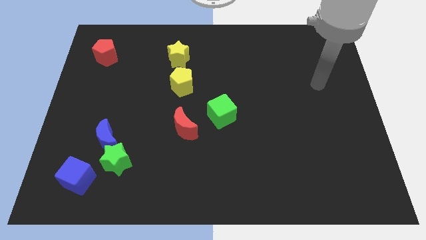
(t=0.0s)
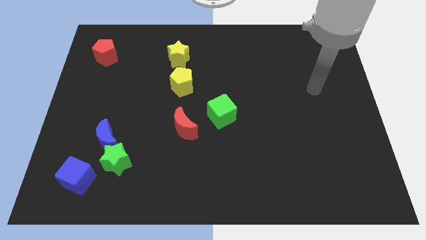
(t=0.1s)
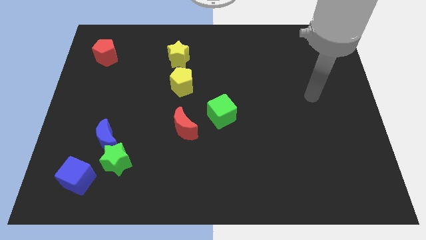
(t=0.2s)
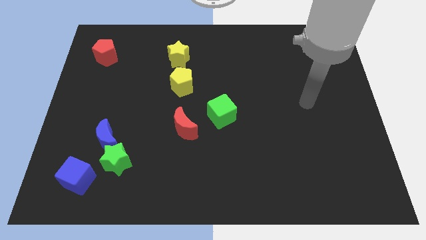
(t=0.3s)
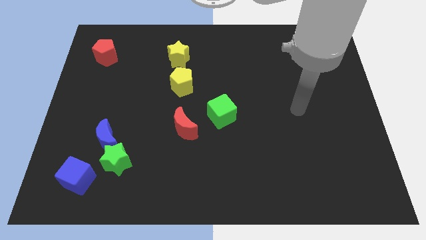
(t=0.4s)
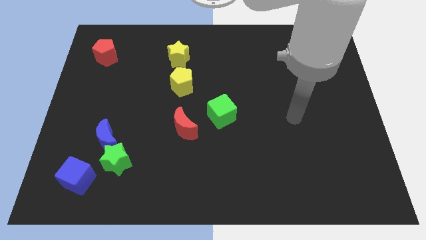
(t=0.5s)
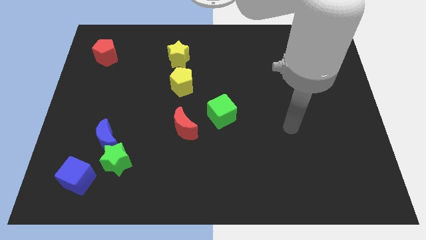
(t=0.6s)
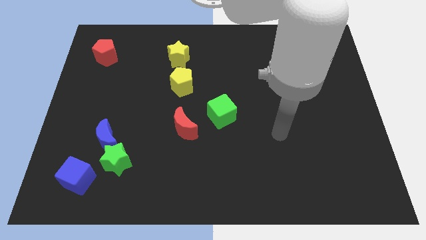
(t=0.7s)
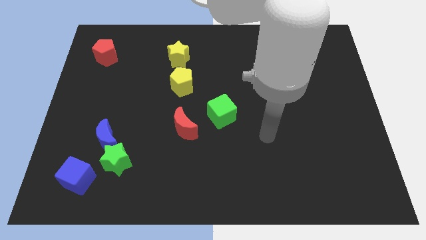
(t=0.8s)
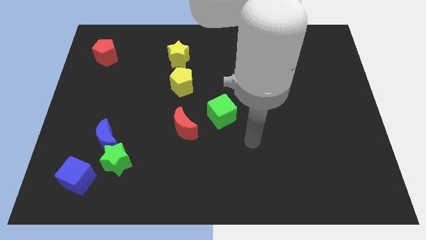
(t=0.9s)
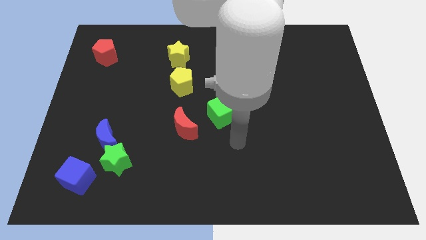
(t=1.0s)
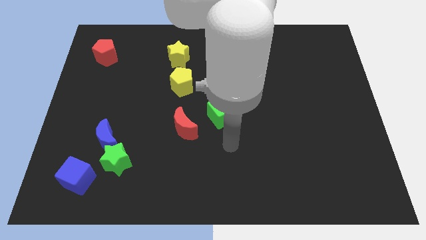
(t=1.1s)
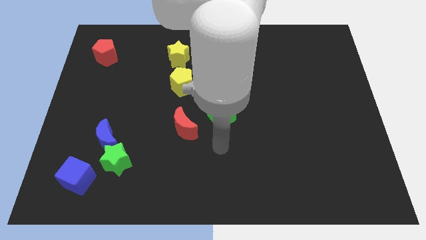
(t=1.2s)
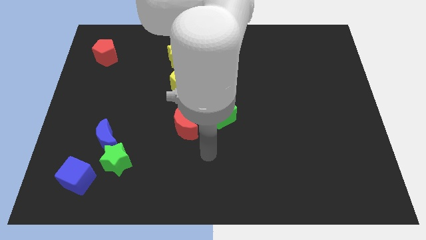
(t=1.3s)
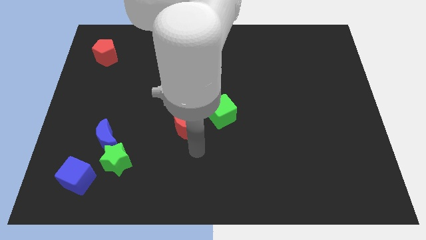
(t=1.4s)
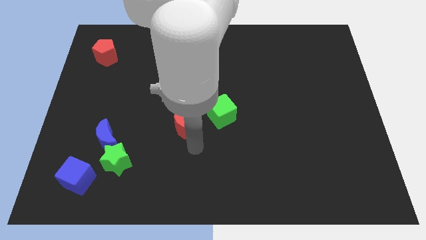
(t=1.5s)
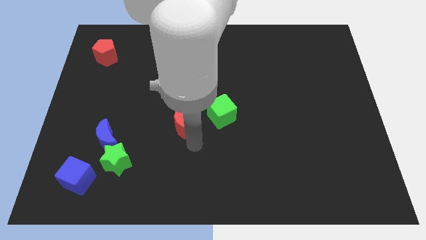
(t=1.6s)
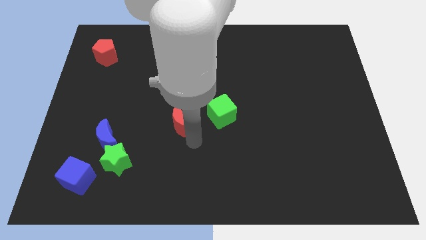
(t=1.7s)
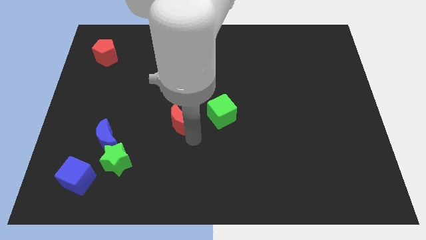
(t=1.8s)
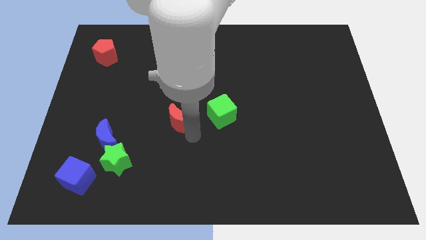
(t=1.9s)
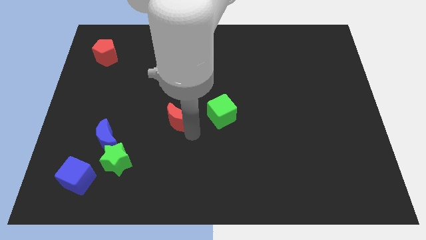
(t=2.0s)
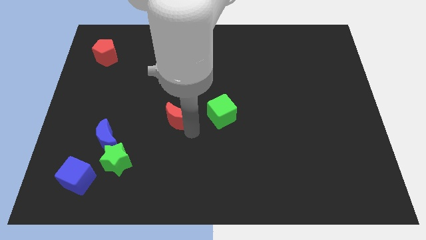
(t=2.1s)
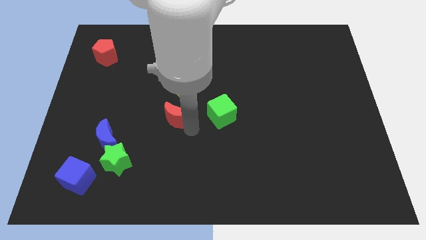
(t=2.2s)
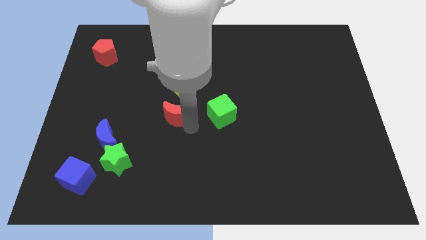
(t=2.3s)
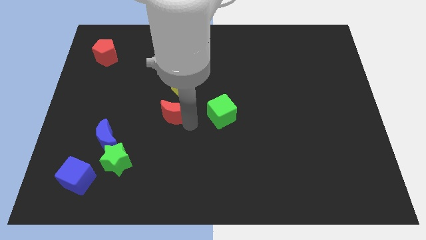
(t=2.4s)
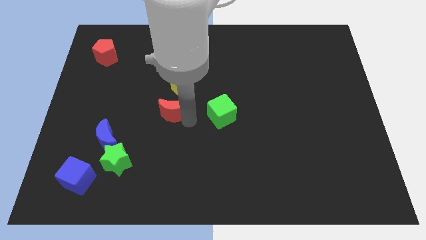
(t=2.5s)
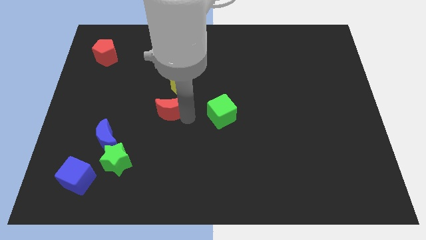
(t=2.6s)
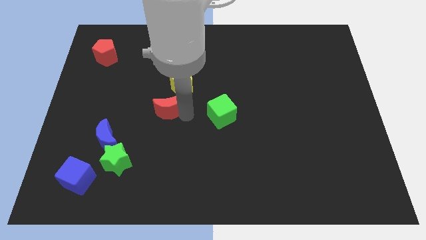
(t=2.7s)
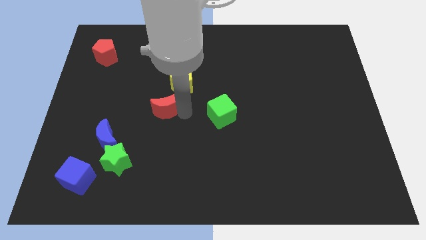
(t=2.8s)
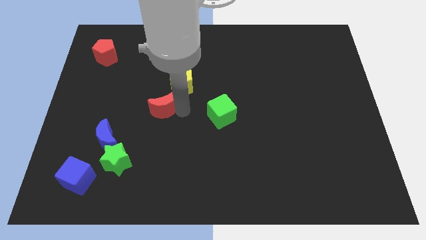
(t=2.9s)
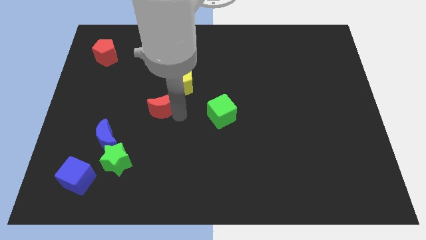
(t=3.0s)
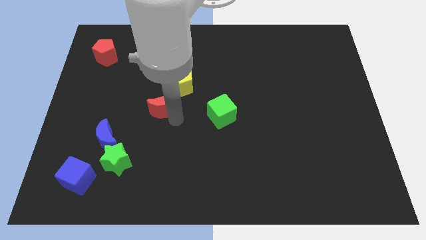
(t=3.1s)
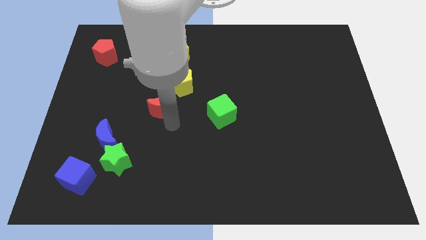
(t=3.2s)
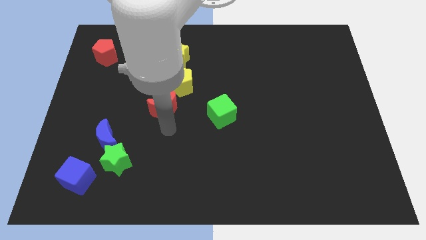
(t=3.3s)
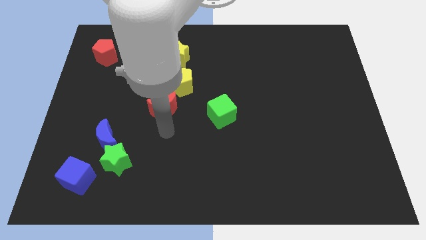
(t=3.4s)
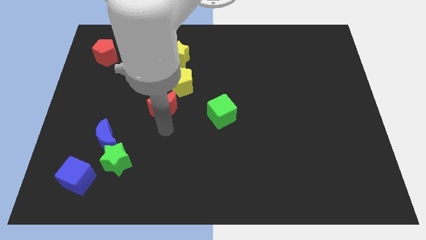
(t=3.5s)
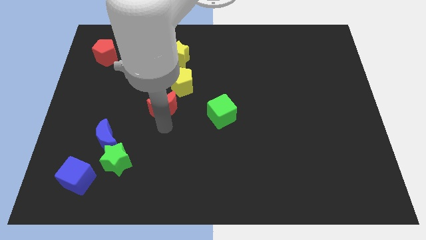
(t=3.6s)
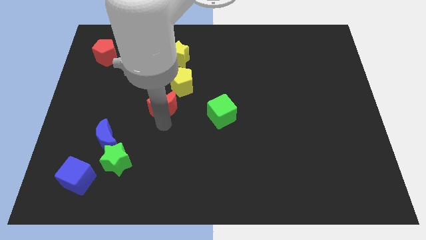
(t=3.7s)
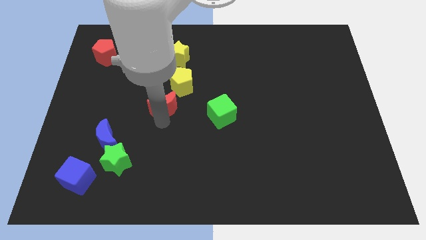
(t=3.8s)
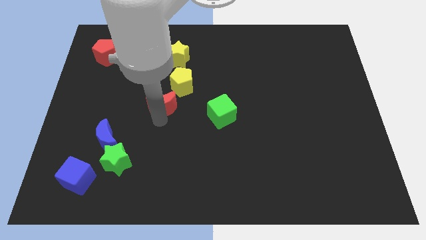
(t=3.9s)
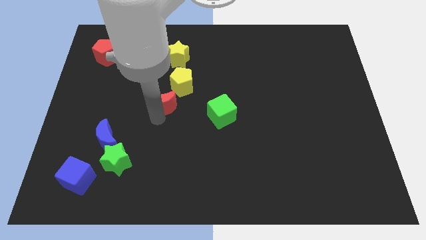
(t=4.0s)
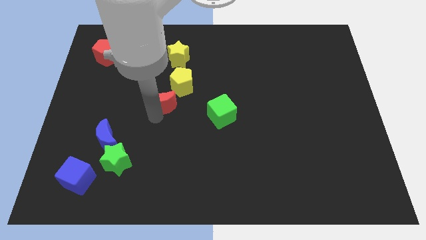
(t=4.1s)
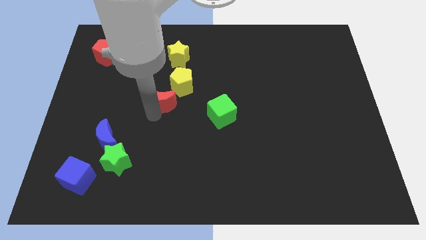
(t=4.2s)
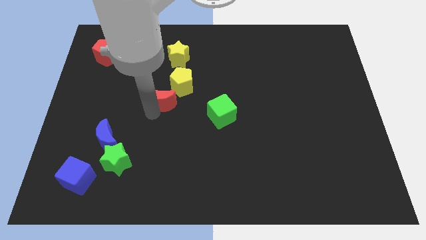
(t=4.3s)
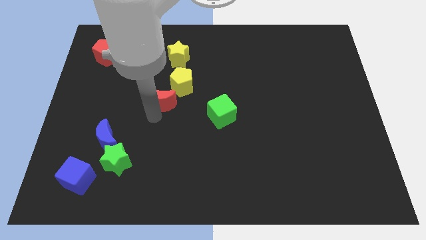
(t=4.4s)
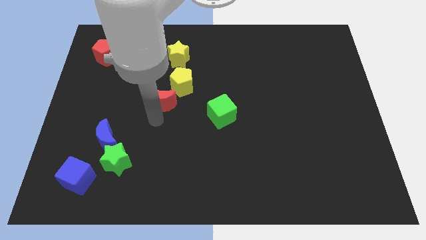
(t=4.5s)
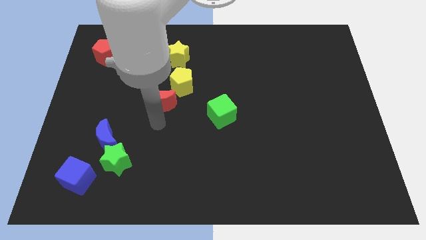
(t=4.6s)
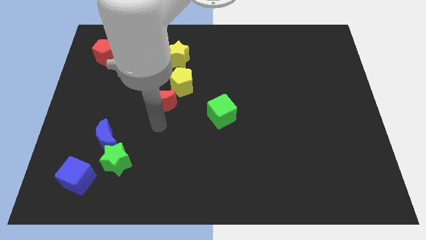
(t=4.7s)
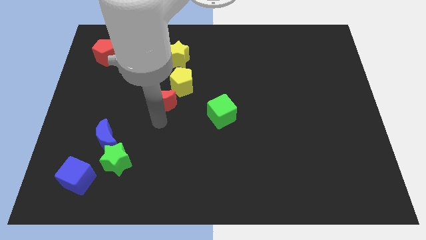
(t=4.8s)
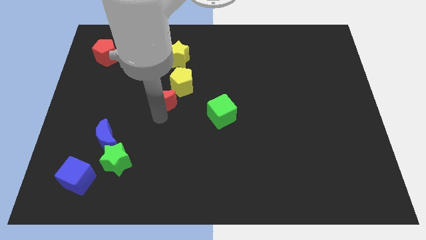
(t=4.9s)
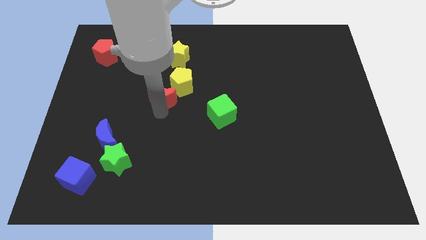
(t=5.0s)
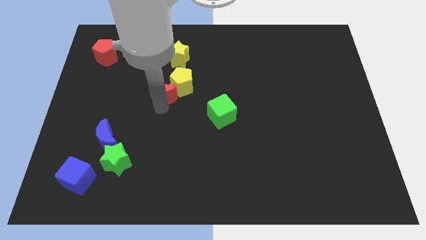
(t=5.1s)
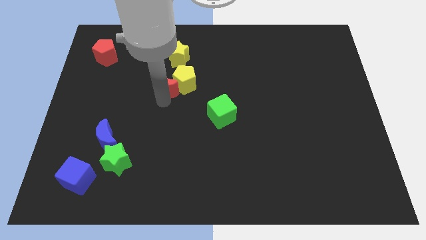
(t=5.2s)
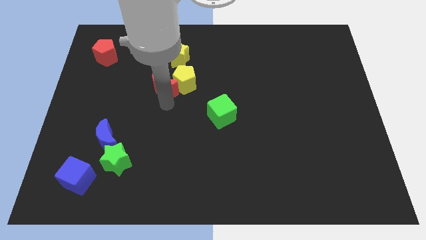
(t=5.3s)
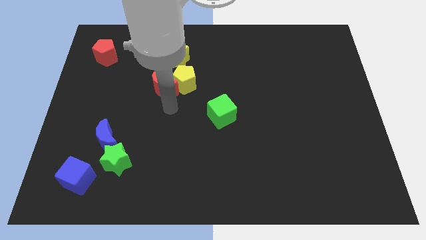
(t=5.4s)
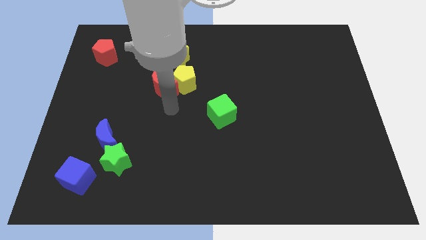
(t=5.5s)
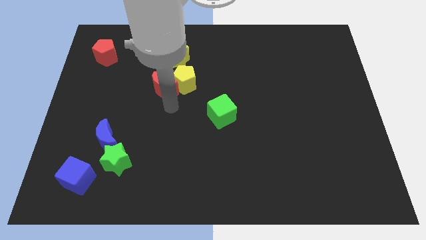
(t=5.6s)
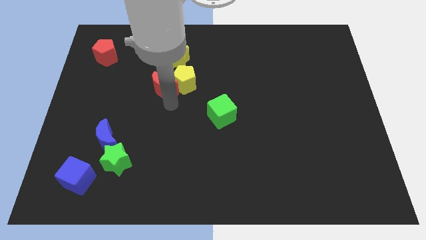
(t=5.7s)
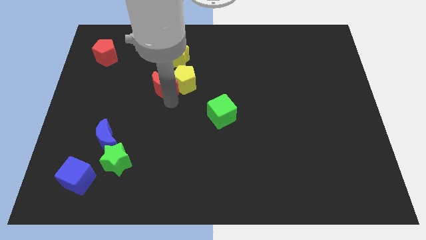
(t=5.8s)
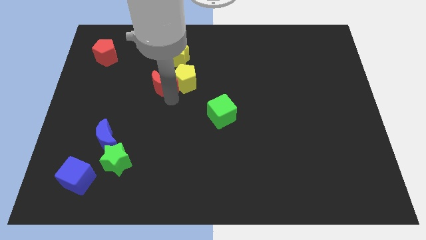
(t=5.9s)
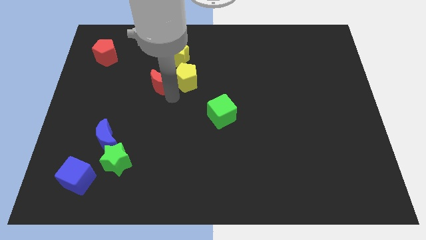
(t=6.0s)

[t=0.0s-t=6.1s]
move the red moon diagonally down and to the left of the yellow star

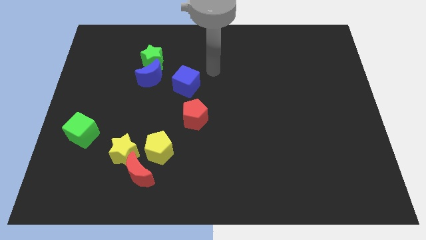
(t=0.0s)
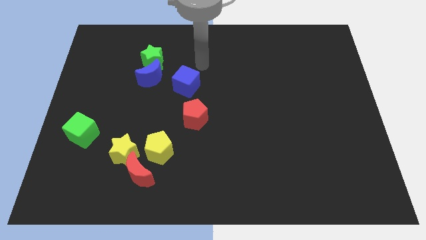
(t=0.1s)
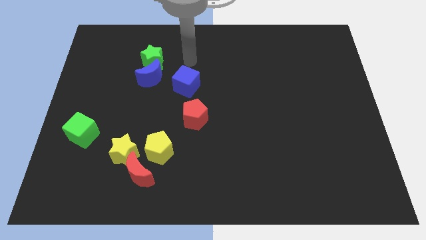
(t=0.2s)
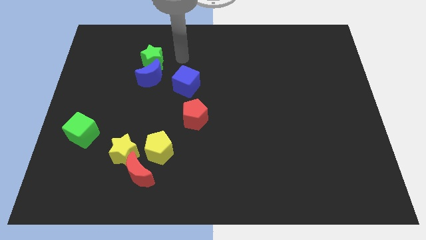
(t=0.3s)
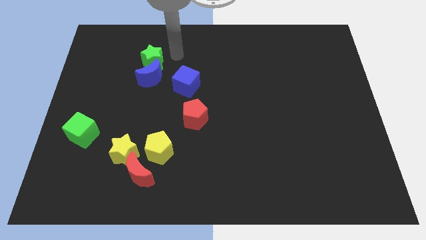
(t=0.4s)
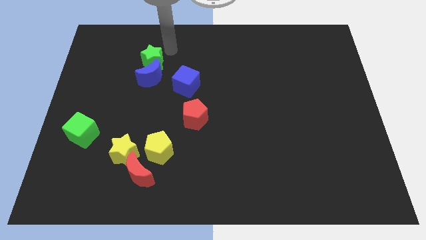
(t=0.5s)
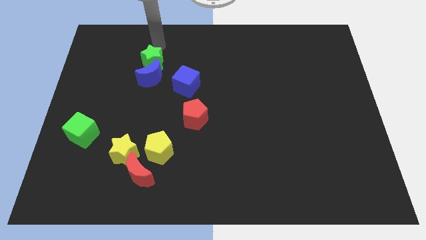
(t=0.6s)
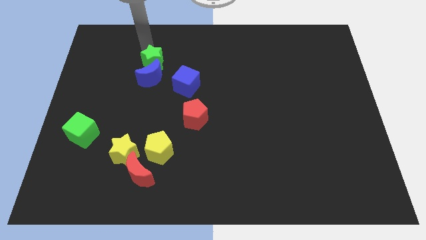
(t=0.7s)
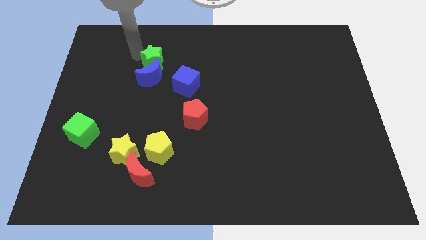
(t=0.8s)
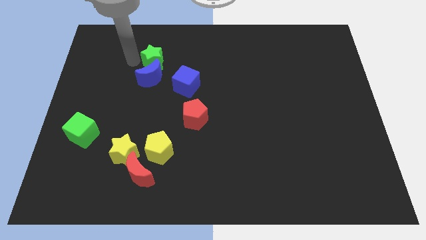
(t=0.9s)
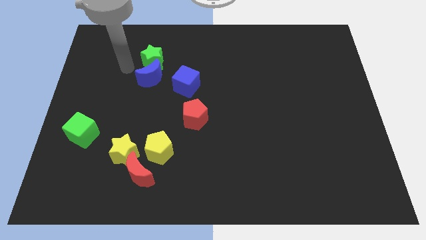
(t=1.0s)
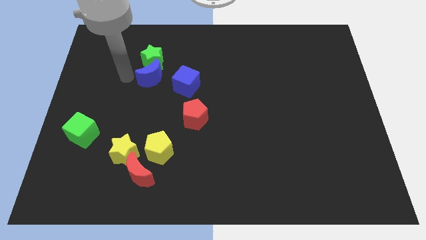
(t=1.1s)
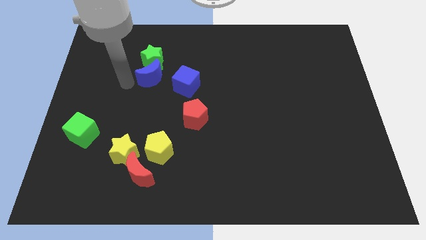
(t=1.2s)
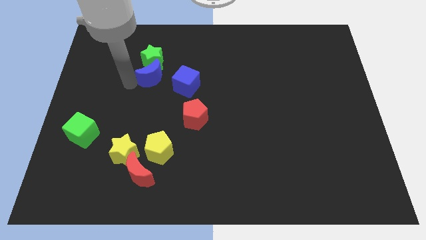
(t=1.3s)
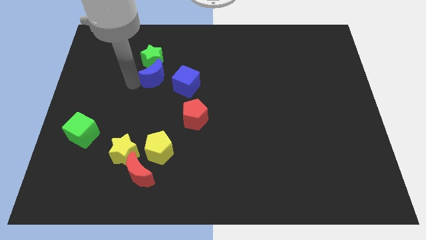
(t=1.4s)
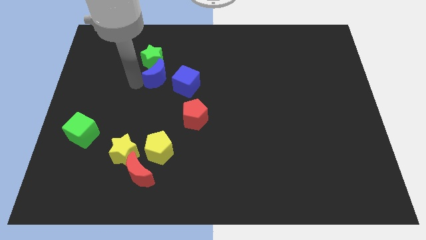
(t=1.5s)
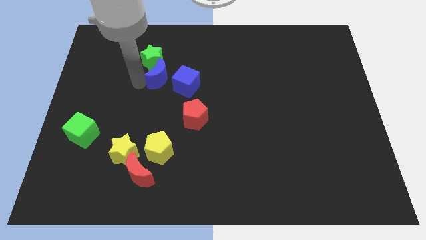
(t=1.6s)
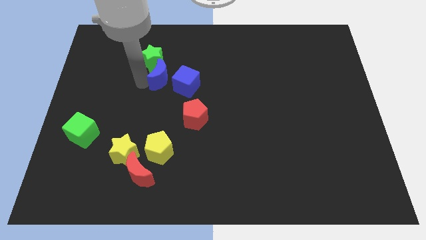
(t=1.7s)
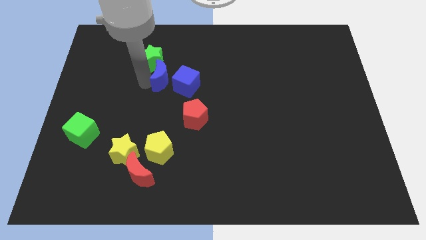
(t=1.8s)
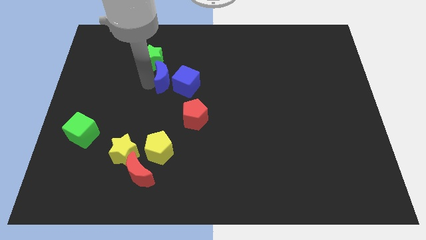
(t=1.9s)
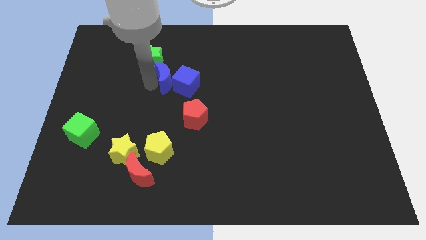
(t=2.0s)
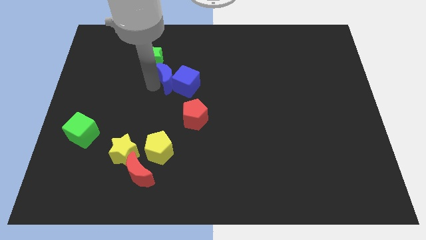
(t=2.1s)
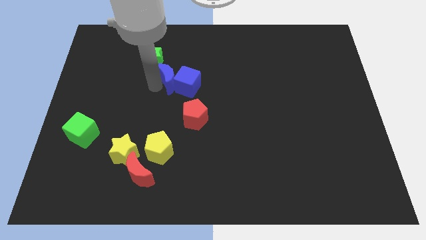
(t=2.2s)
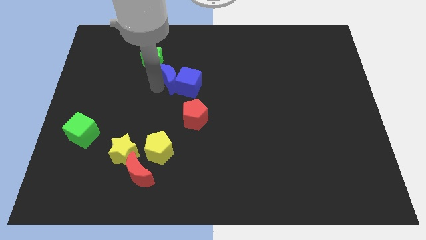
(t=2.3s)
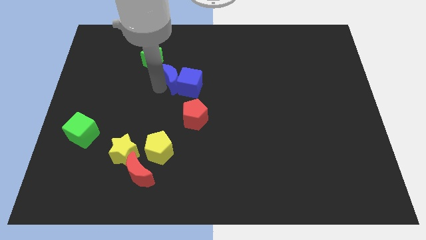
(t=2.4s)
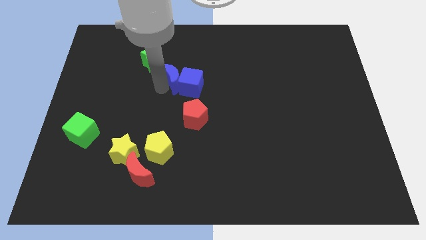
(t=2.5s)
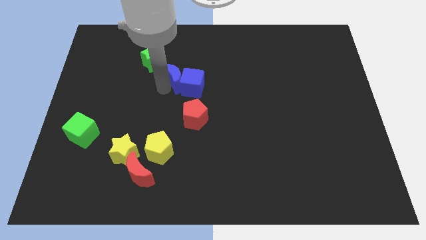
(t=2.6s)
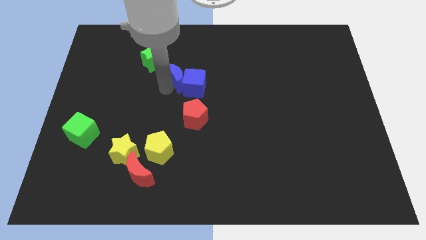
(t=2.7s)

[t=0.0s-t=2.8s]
move the blue moon above the red pentagon
